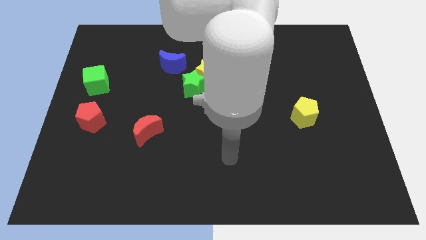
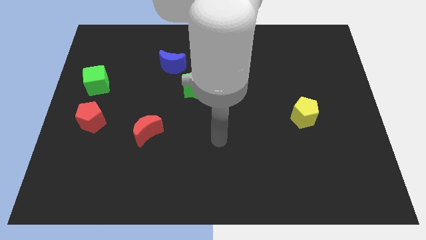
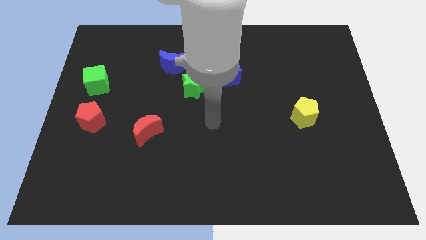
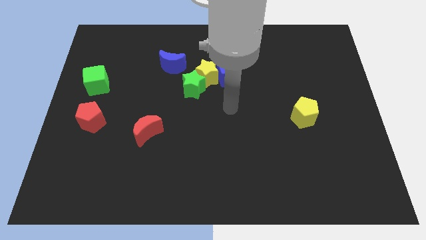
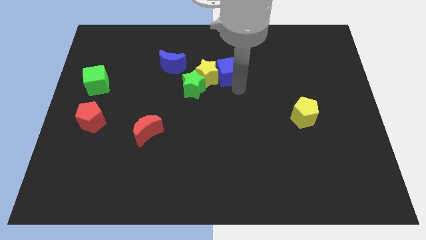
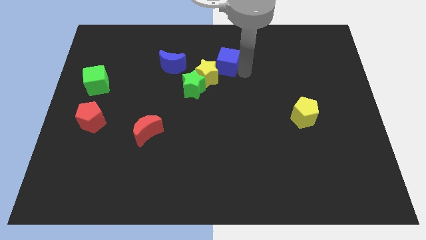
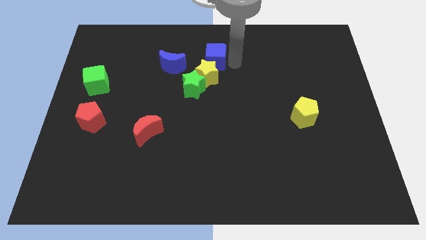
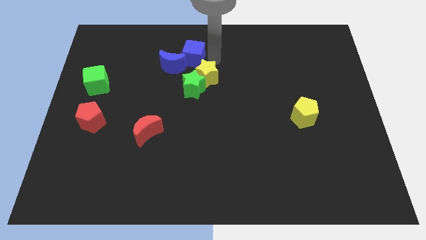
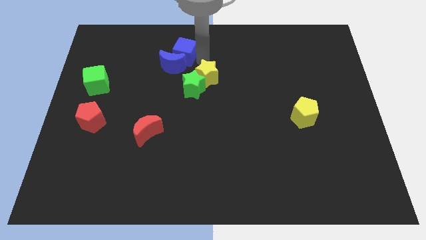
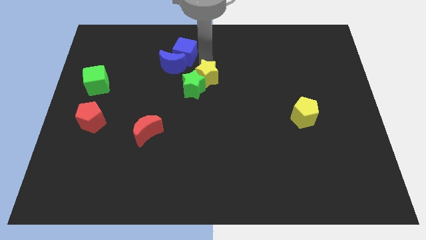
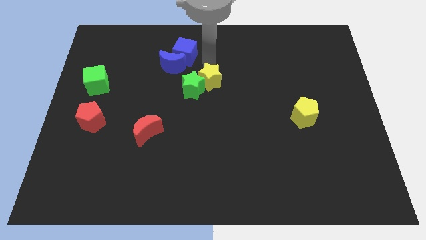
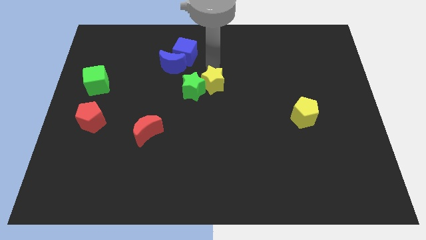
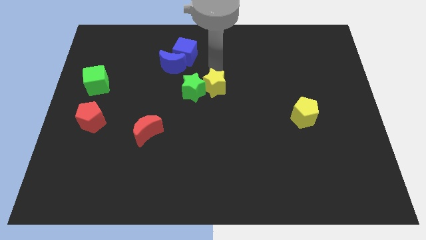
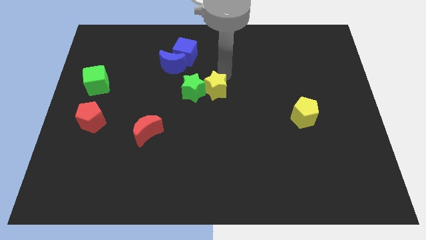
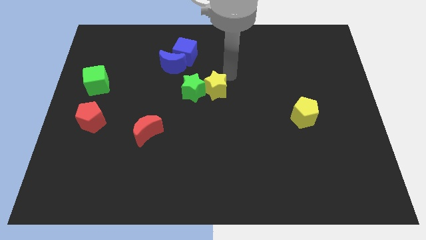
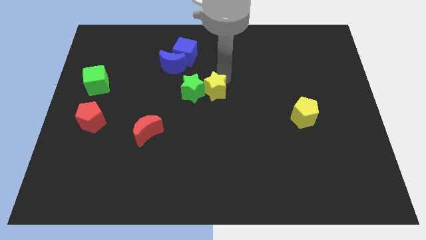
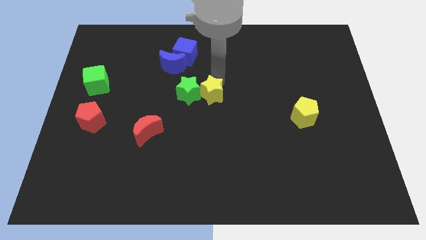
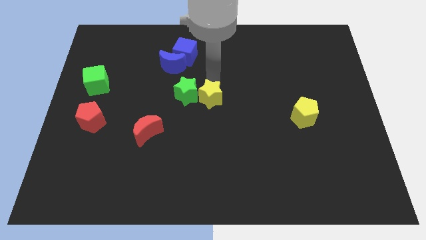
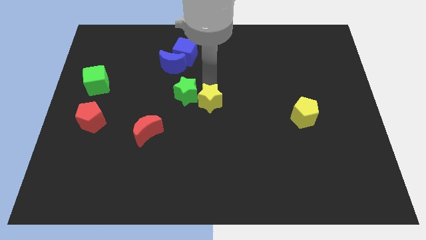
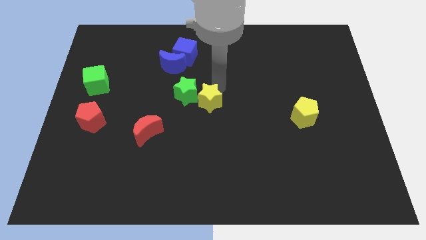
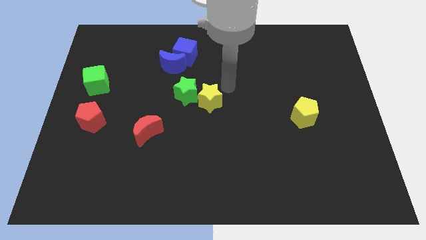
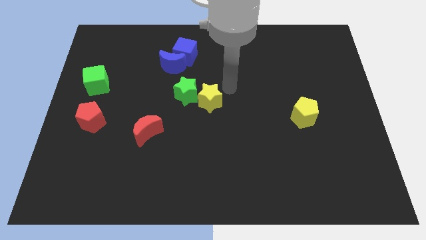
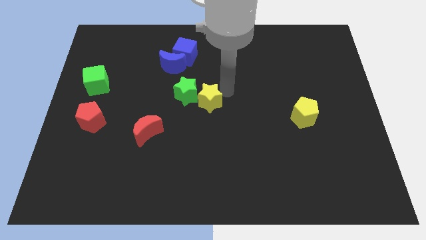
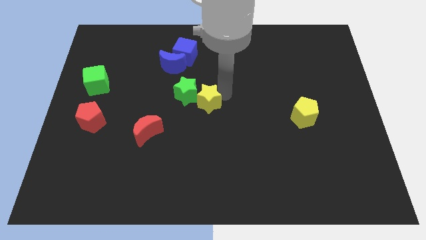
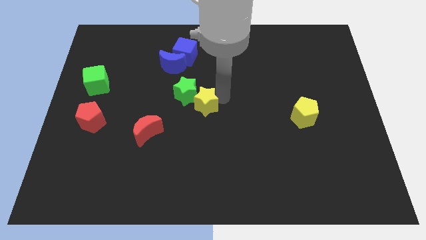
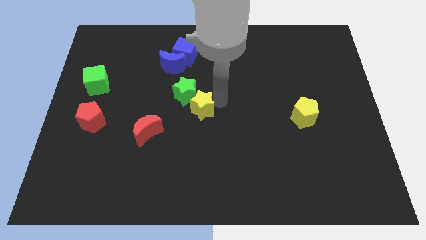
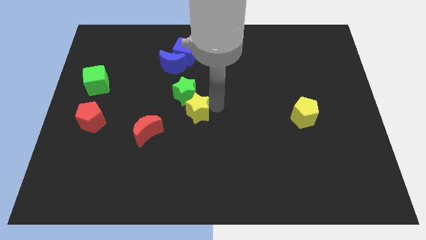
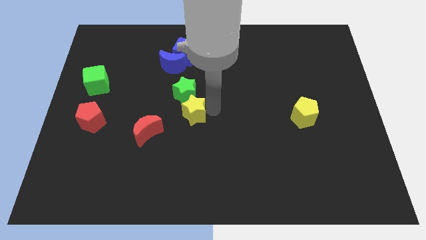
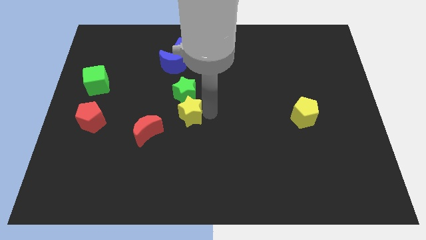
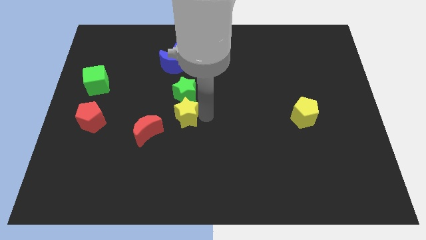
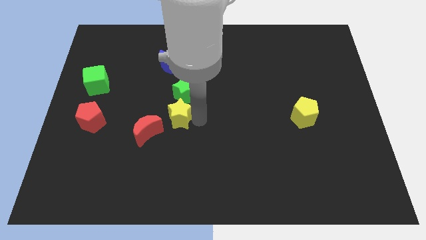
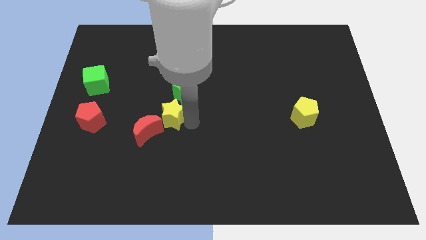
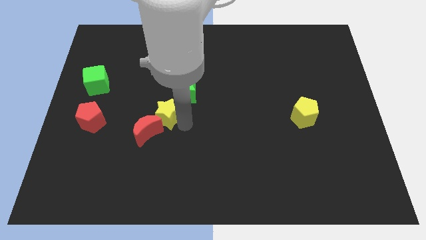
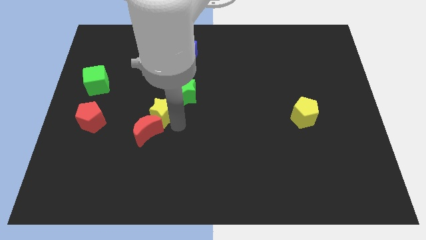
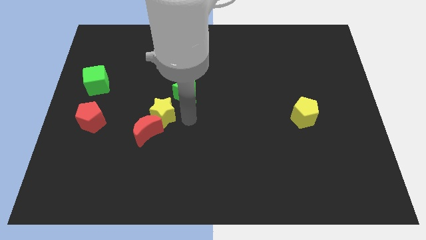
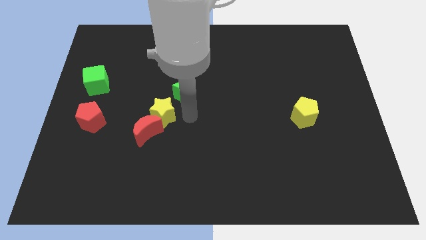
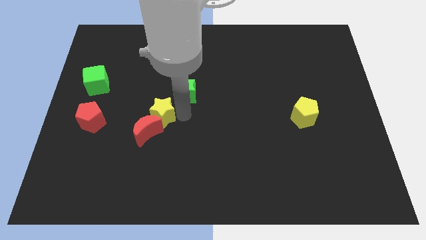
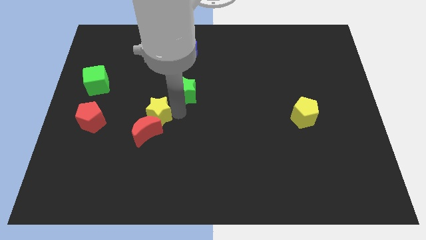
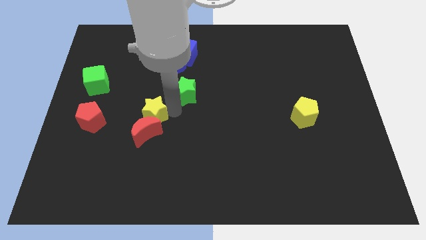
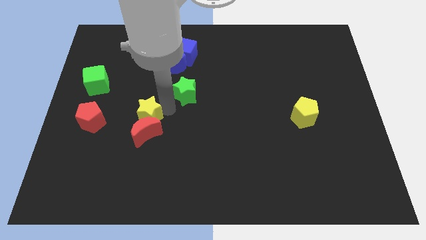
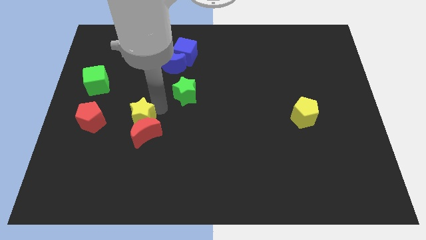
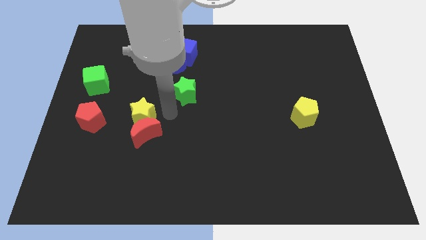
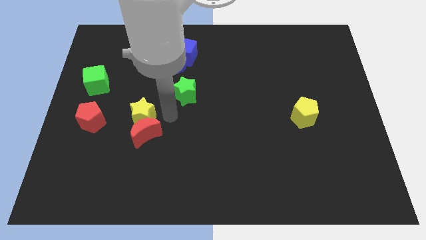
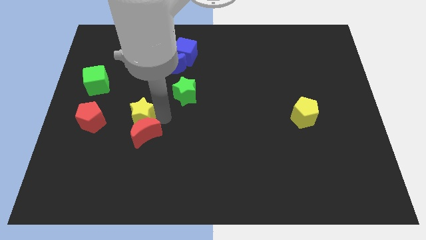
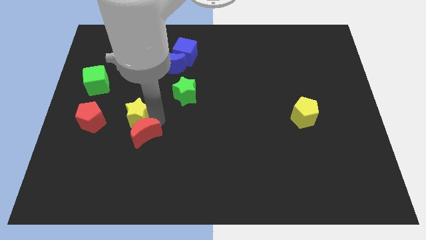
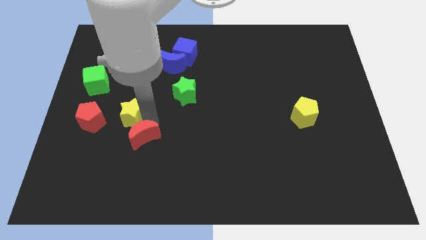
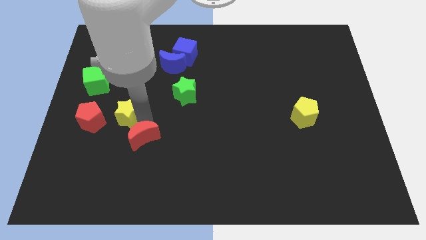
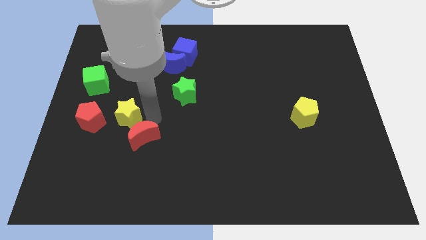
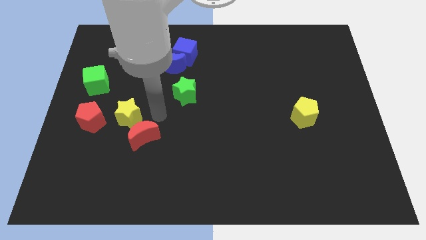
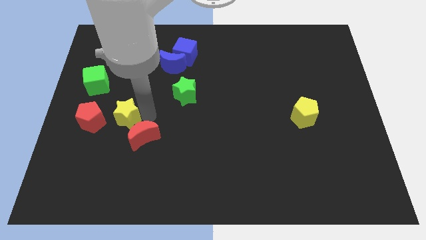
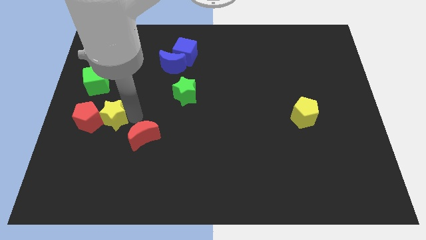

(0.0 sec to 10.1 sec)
slide the yellow star to the red pentagon

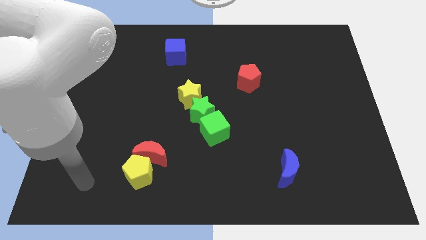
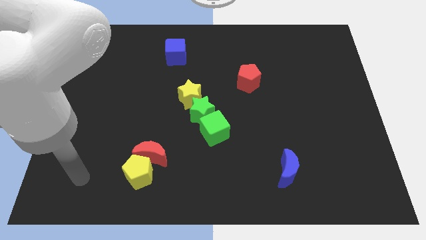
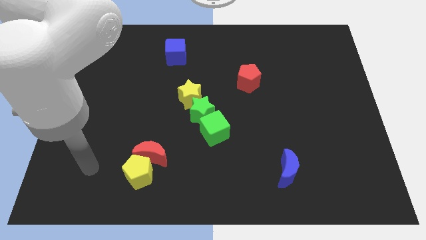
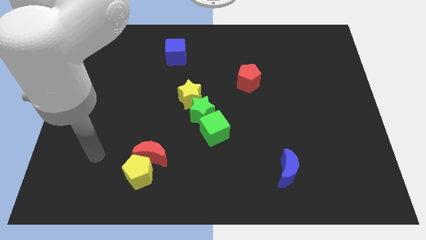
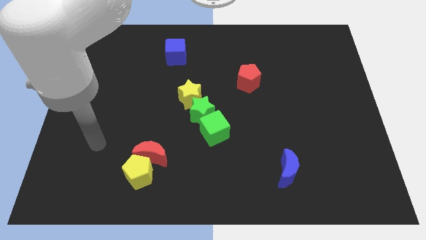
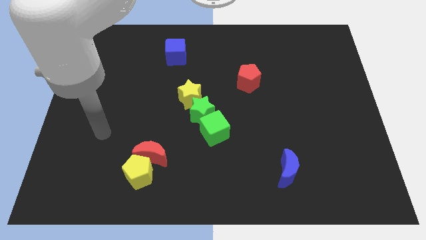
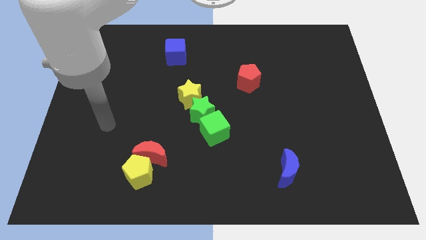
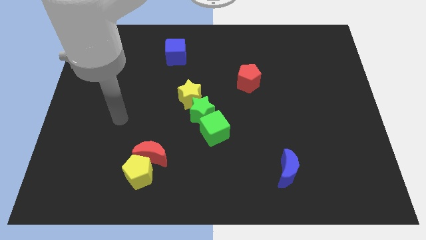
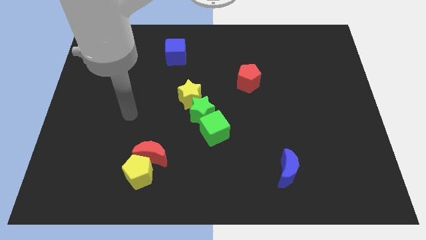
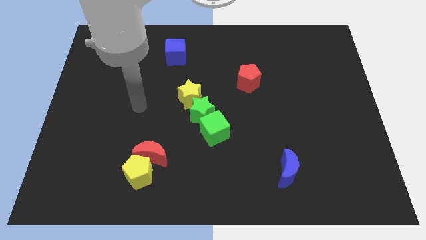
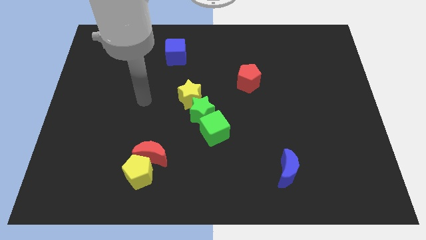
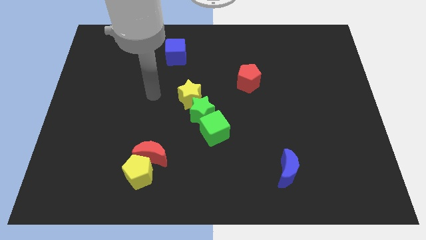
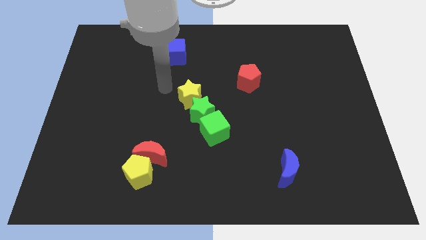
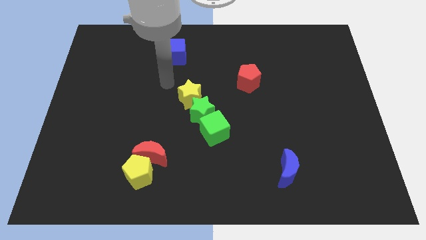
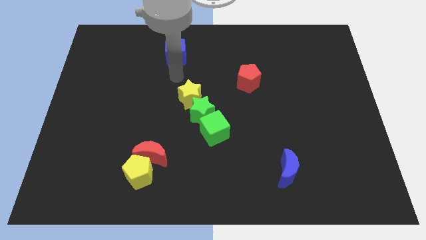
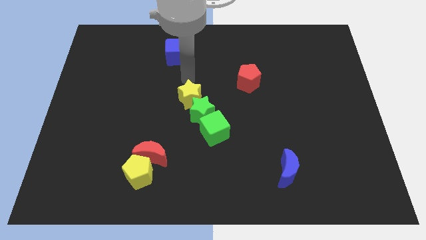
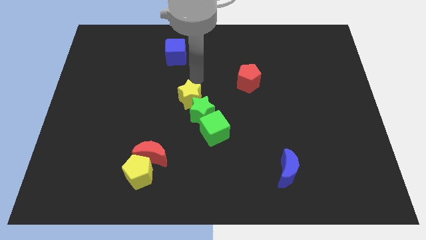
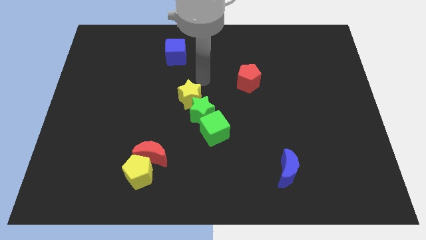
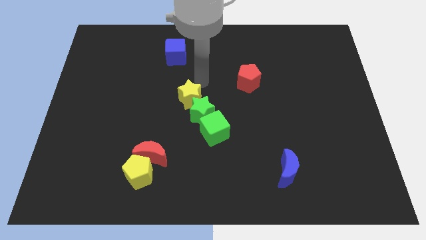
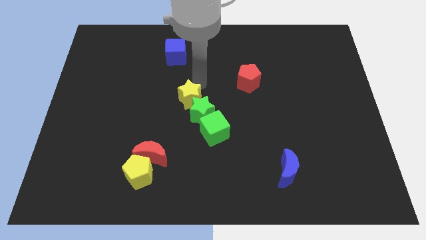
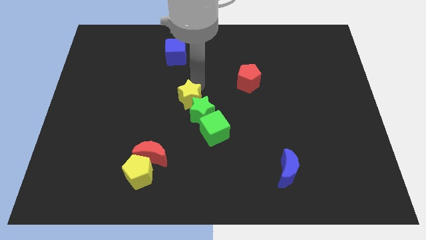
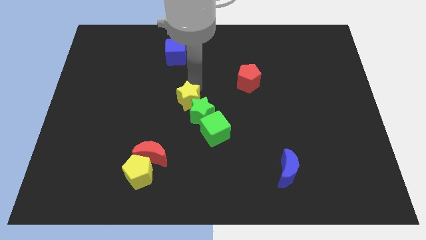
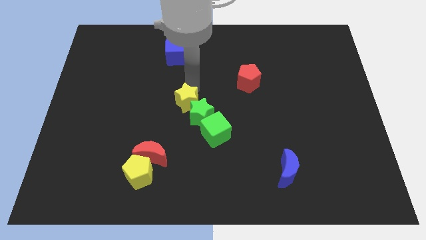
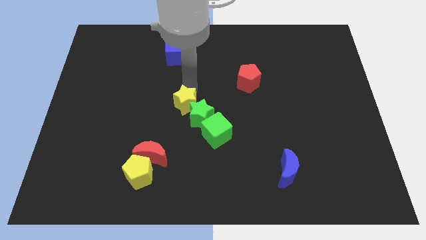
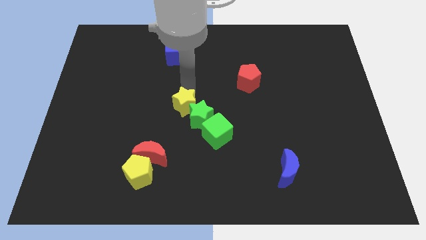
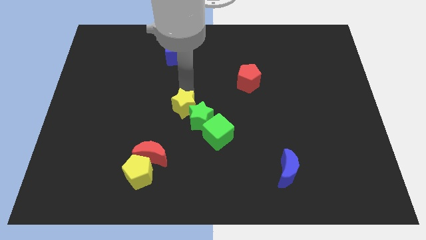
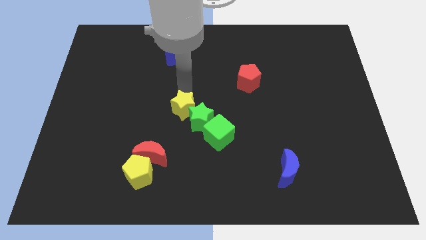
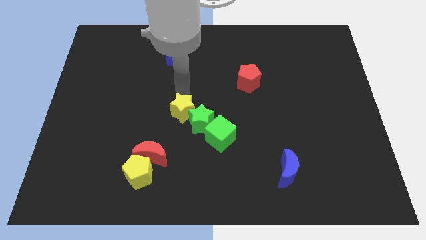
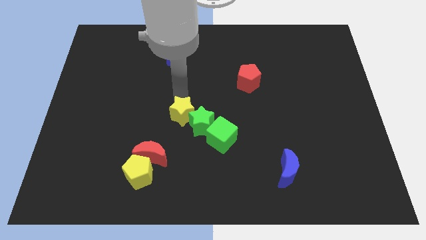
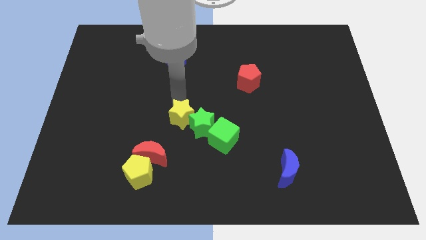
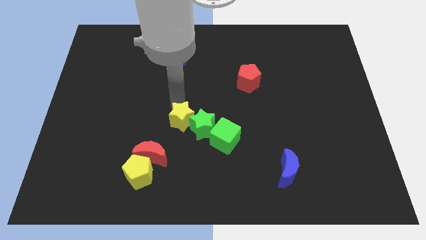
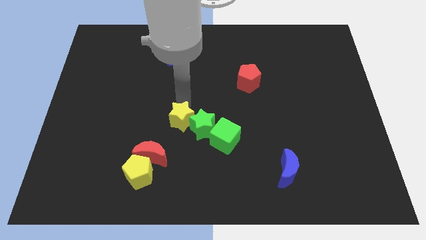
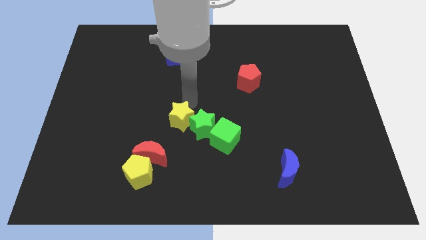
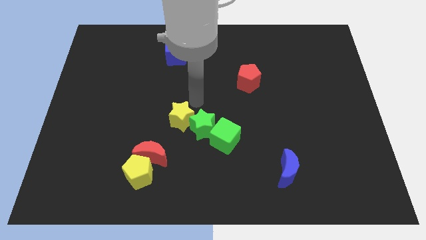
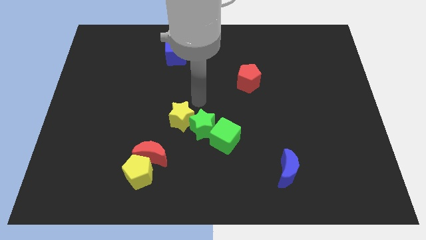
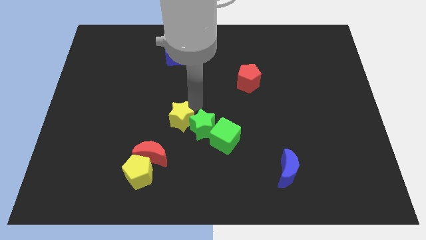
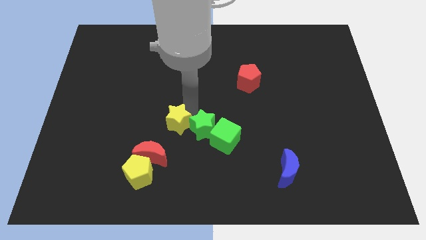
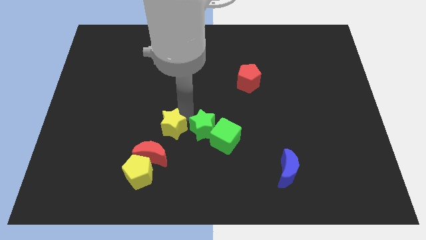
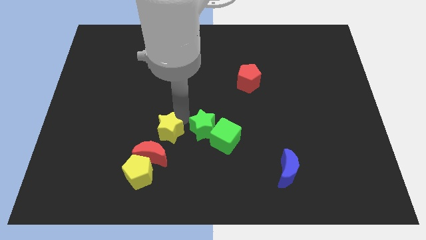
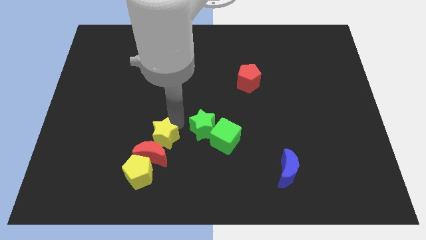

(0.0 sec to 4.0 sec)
slide the yellow star next to the red moon
